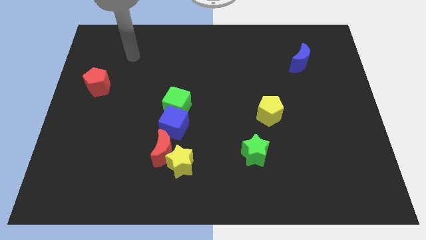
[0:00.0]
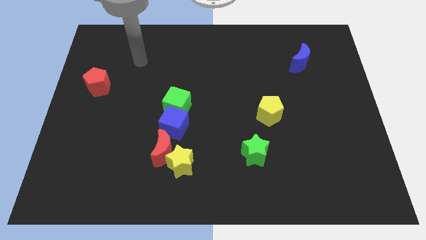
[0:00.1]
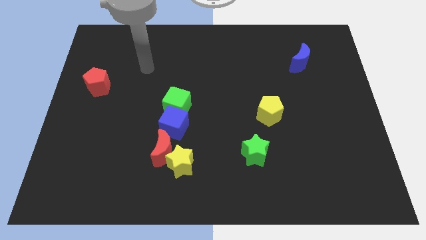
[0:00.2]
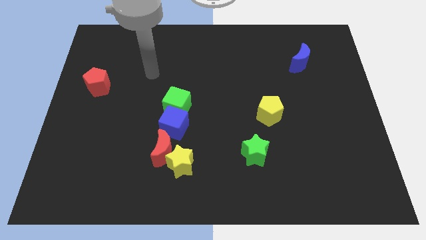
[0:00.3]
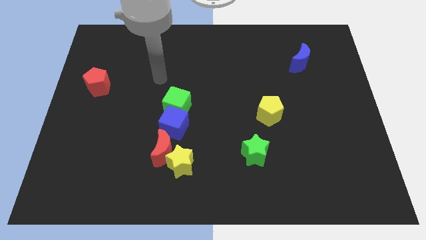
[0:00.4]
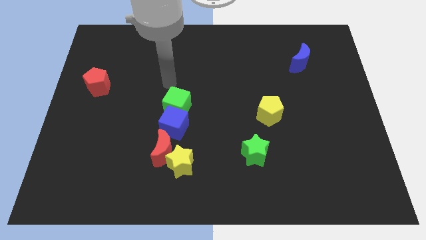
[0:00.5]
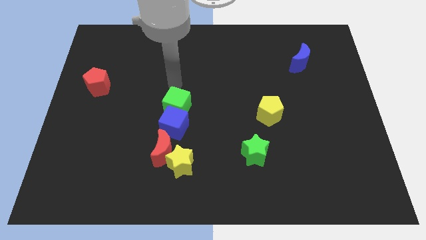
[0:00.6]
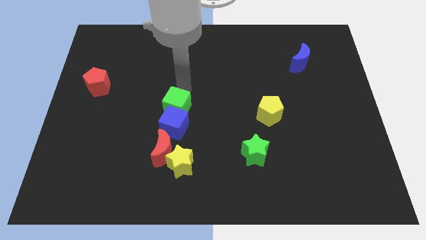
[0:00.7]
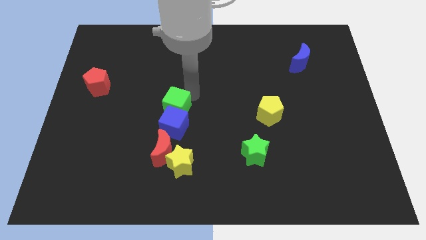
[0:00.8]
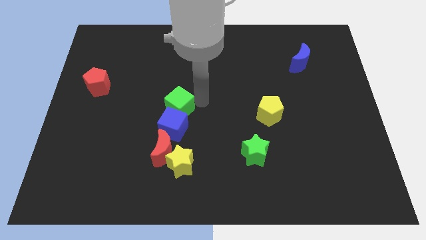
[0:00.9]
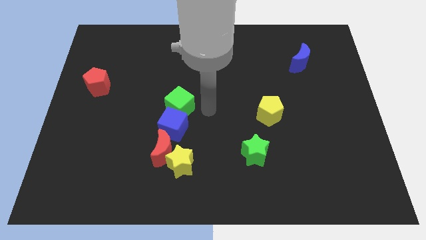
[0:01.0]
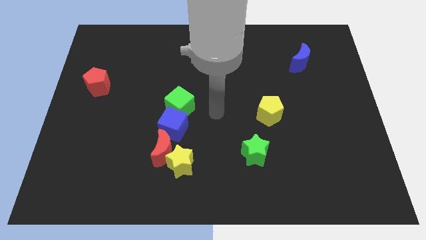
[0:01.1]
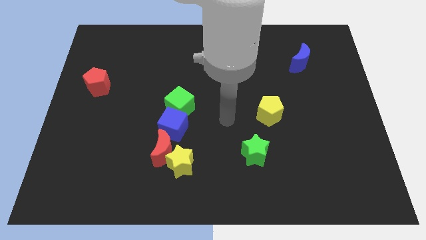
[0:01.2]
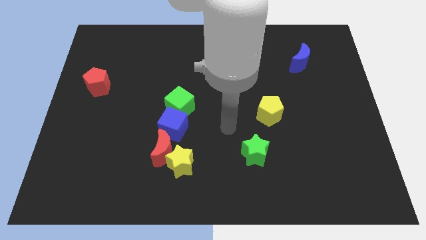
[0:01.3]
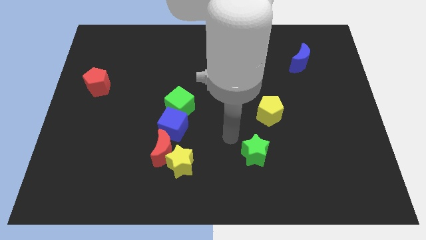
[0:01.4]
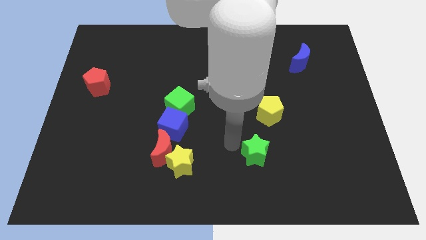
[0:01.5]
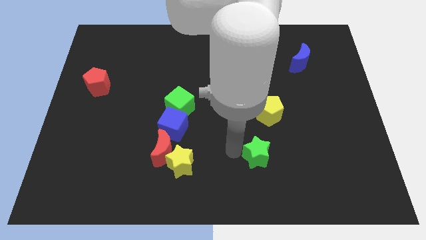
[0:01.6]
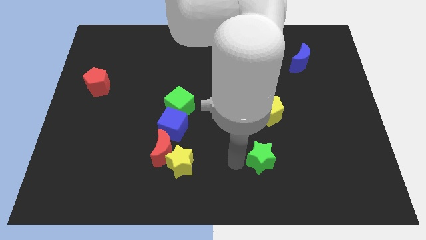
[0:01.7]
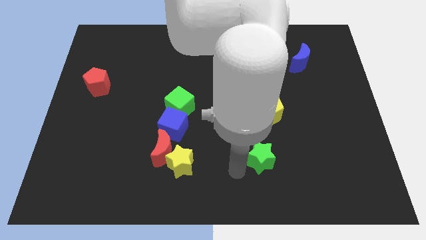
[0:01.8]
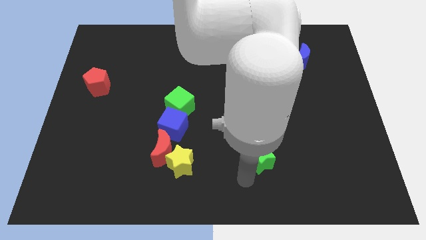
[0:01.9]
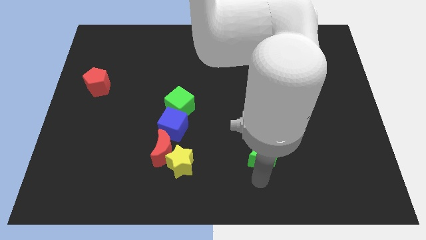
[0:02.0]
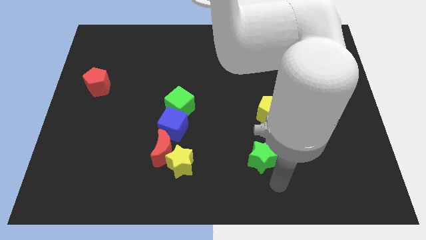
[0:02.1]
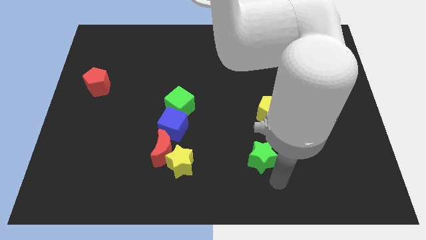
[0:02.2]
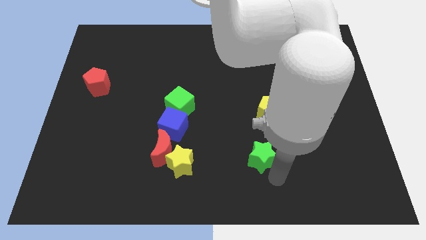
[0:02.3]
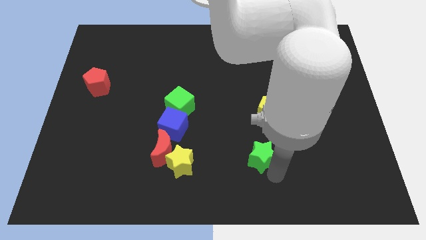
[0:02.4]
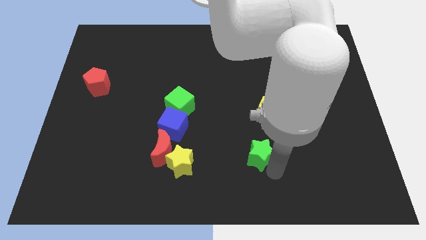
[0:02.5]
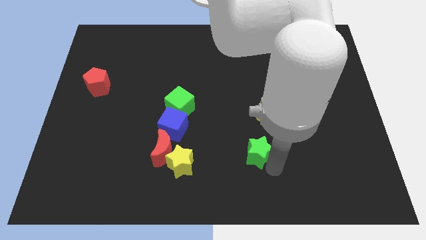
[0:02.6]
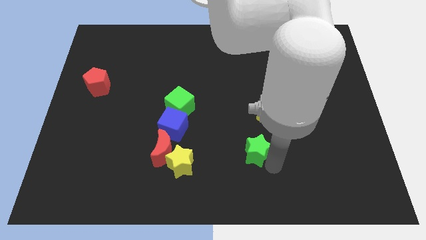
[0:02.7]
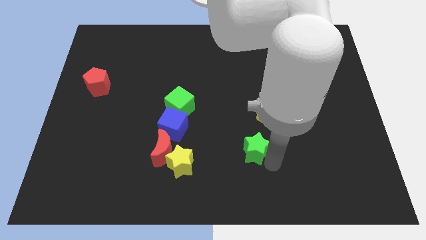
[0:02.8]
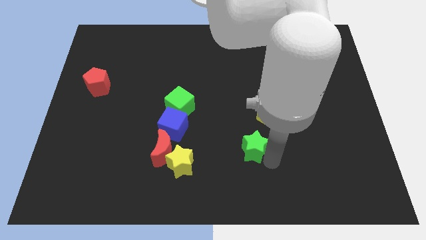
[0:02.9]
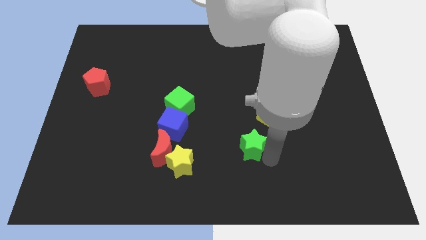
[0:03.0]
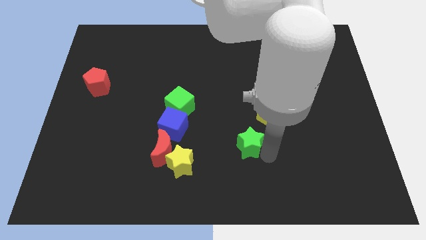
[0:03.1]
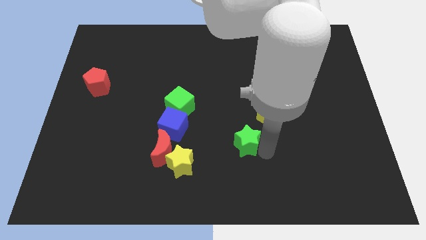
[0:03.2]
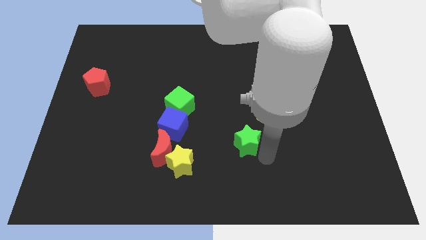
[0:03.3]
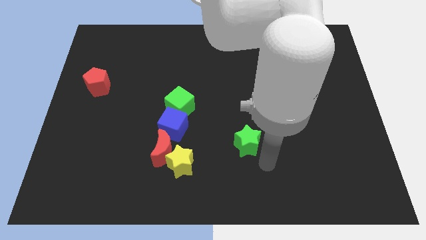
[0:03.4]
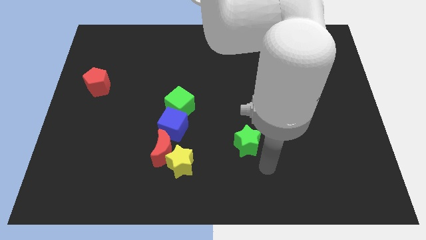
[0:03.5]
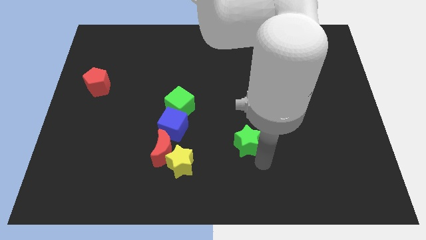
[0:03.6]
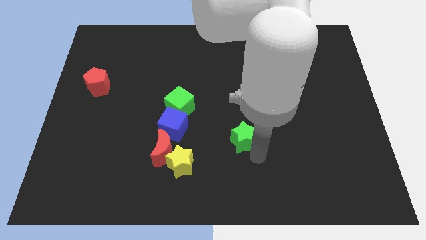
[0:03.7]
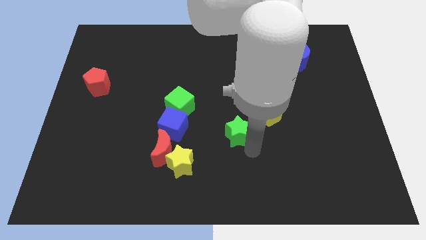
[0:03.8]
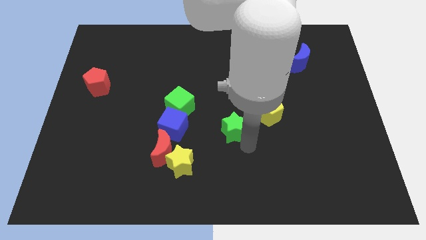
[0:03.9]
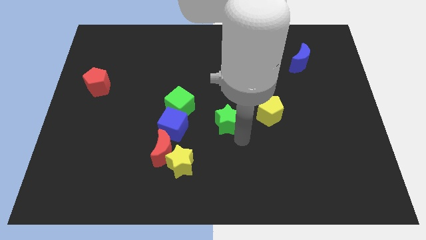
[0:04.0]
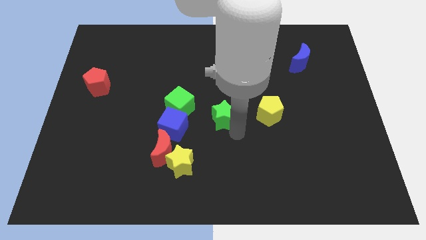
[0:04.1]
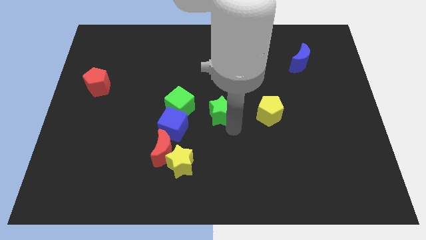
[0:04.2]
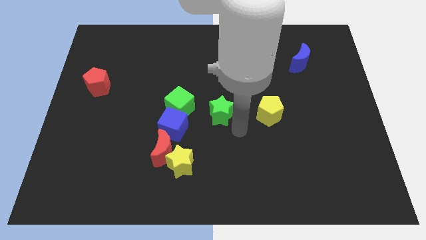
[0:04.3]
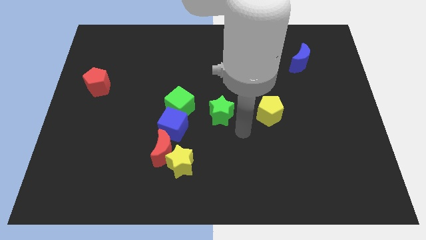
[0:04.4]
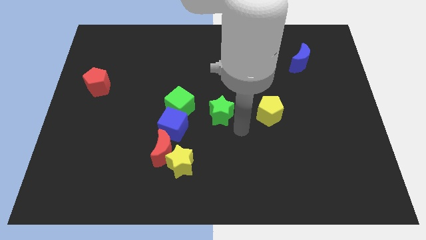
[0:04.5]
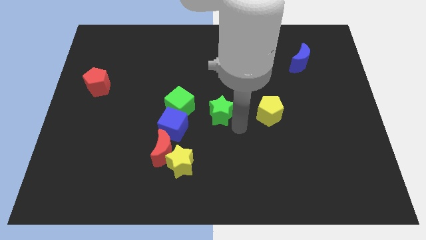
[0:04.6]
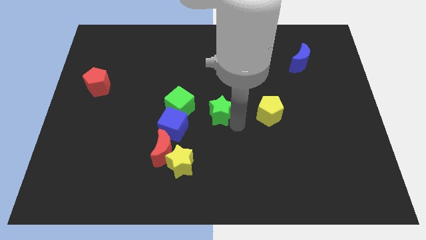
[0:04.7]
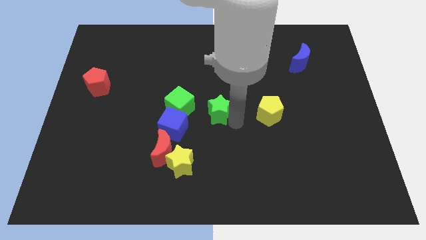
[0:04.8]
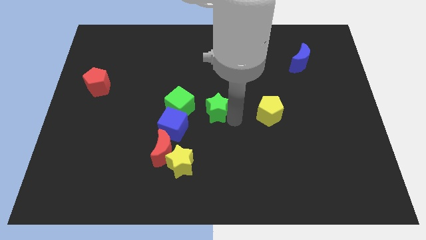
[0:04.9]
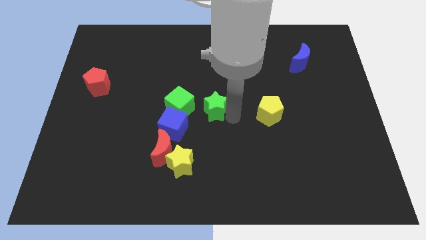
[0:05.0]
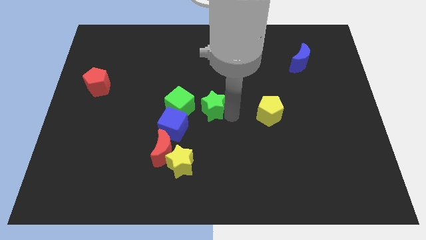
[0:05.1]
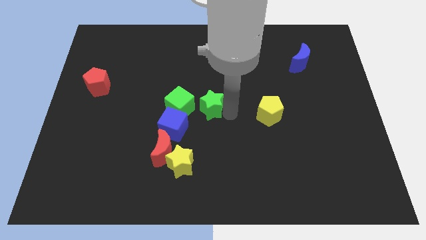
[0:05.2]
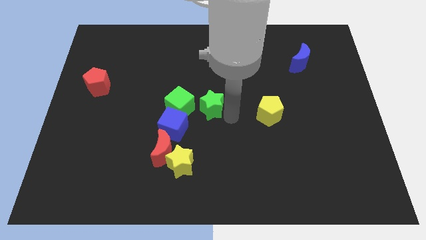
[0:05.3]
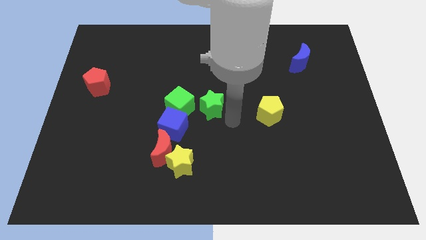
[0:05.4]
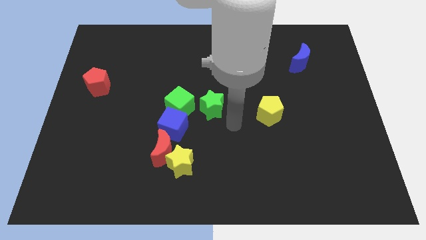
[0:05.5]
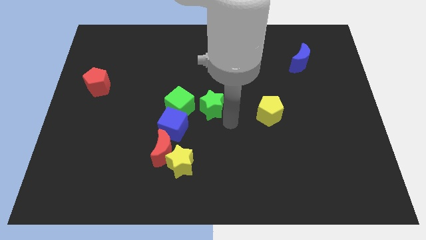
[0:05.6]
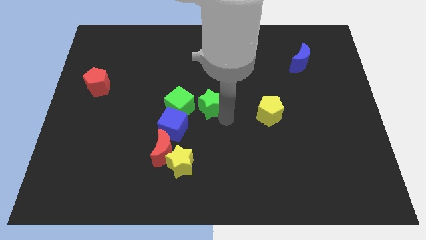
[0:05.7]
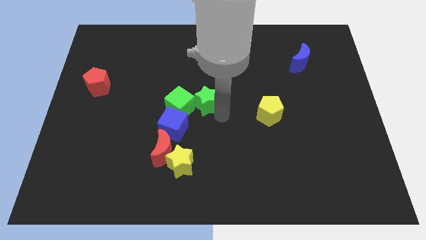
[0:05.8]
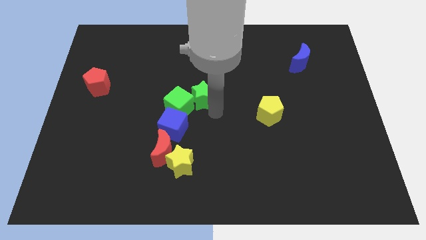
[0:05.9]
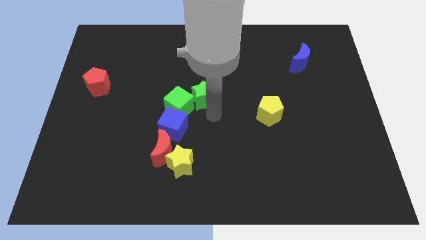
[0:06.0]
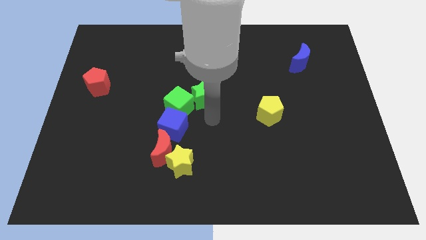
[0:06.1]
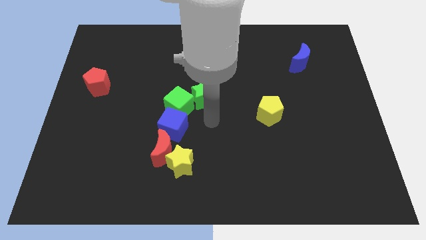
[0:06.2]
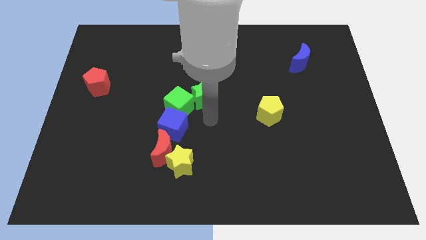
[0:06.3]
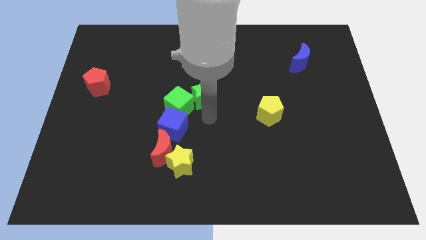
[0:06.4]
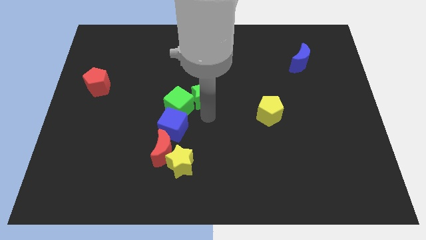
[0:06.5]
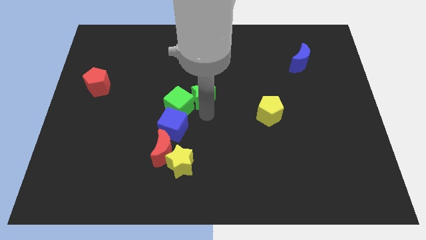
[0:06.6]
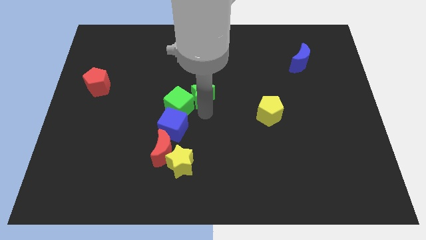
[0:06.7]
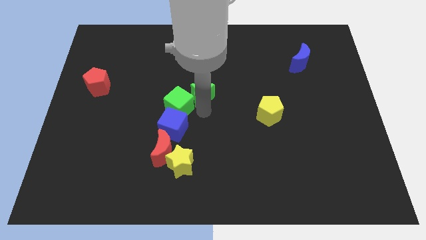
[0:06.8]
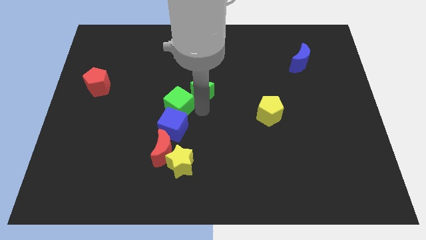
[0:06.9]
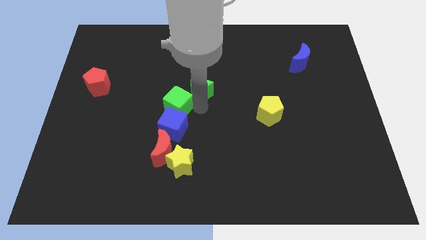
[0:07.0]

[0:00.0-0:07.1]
slide the green star up and then to the left

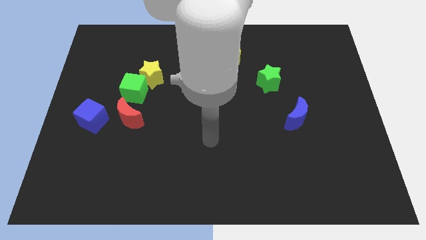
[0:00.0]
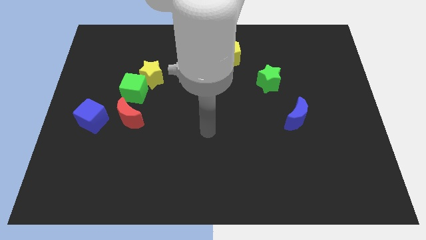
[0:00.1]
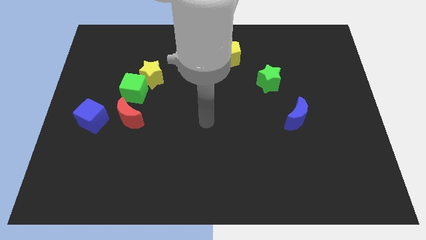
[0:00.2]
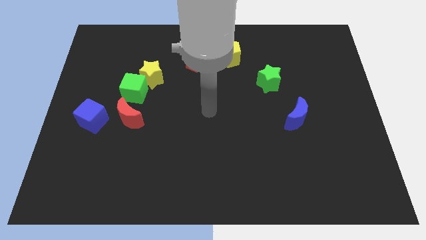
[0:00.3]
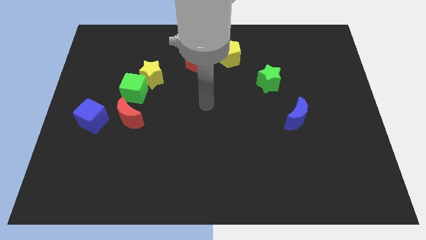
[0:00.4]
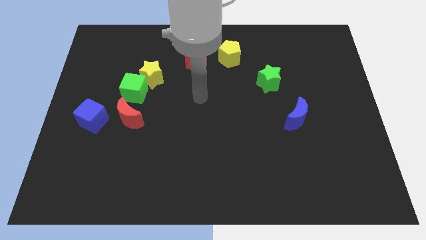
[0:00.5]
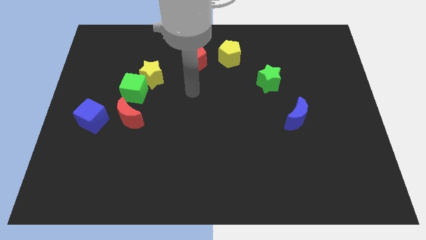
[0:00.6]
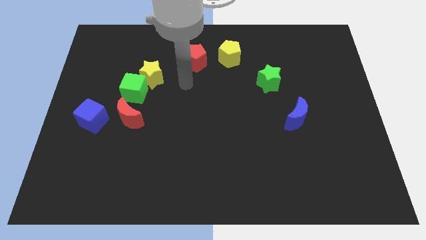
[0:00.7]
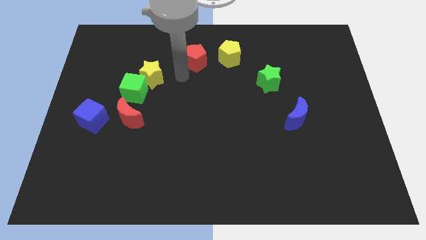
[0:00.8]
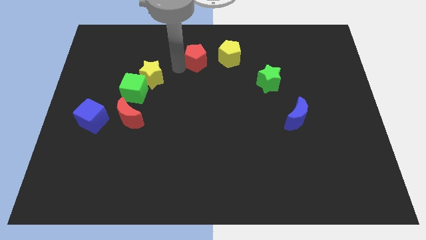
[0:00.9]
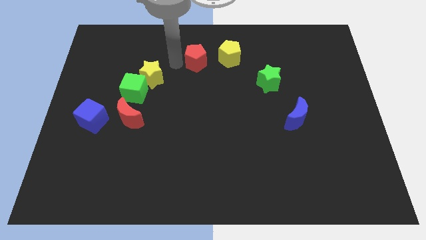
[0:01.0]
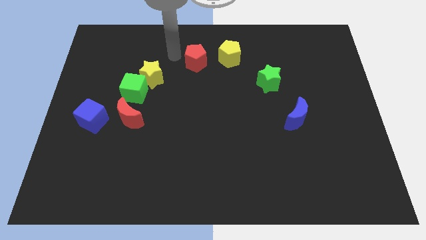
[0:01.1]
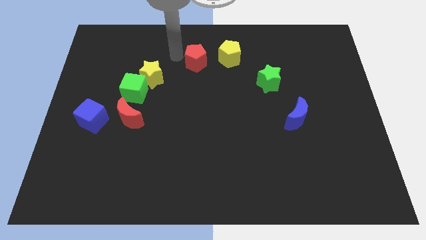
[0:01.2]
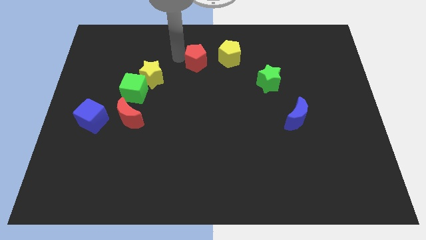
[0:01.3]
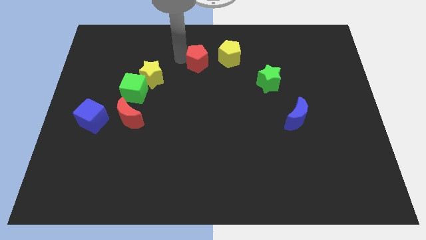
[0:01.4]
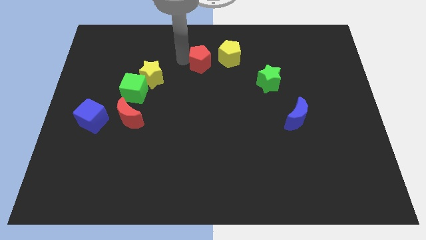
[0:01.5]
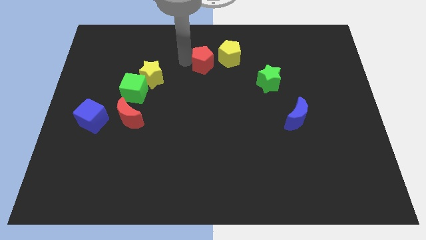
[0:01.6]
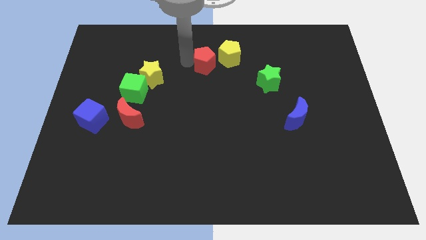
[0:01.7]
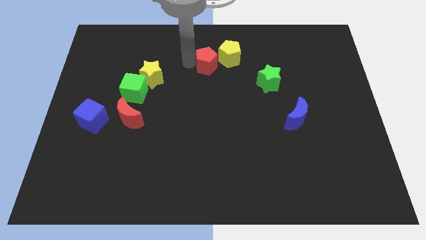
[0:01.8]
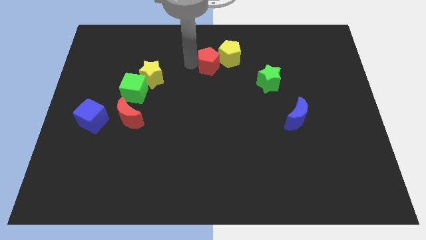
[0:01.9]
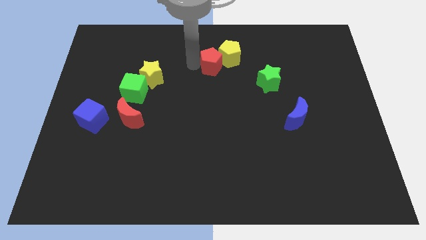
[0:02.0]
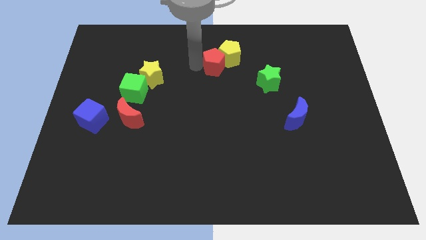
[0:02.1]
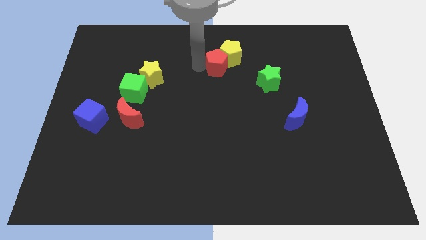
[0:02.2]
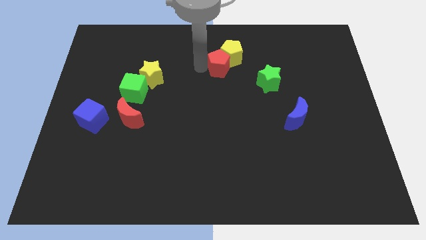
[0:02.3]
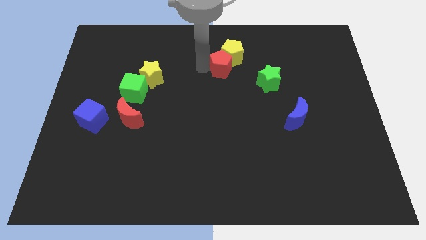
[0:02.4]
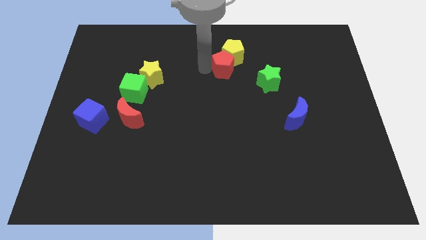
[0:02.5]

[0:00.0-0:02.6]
move the red pentagon to the right a little bit
